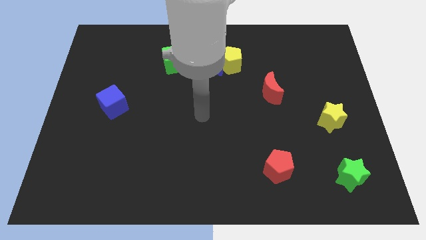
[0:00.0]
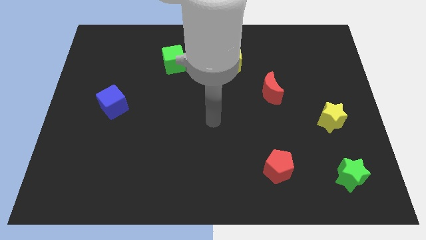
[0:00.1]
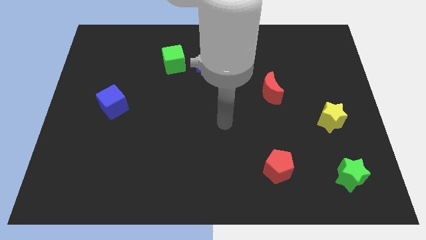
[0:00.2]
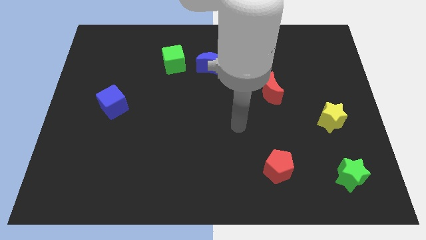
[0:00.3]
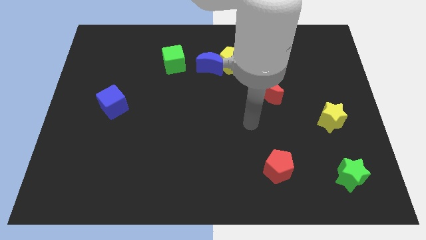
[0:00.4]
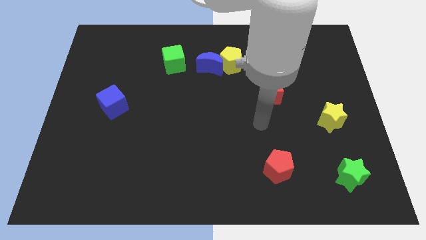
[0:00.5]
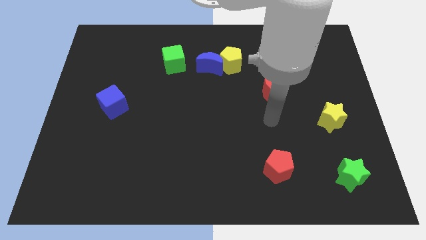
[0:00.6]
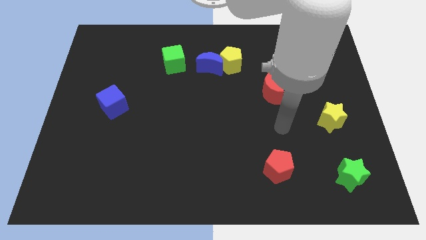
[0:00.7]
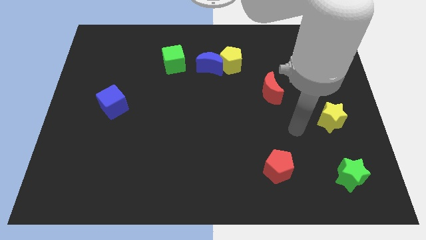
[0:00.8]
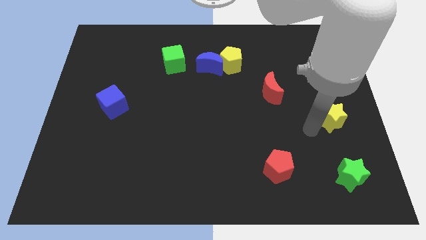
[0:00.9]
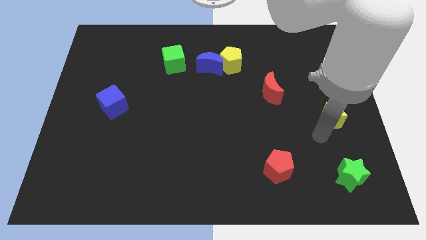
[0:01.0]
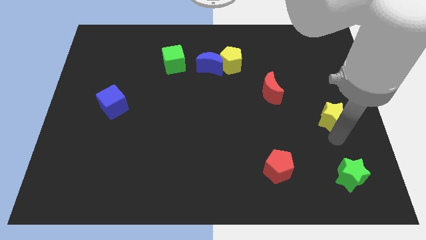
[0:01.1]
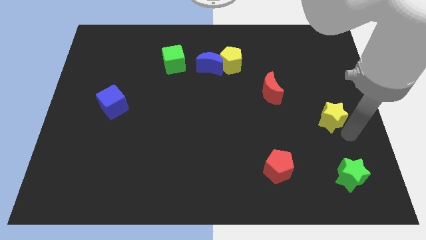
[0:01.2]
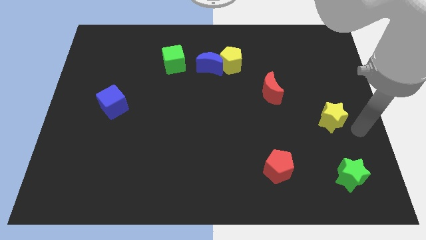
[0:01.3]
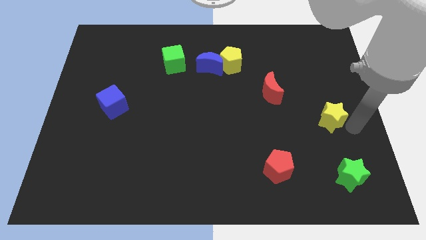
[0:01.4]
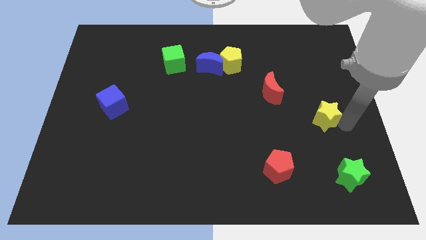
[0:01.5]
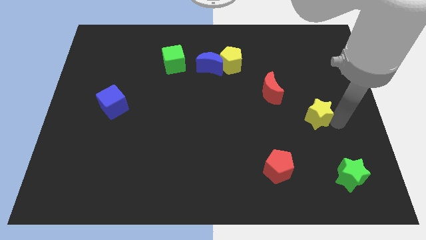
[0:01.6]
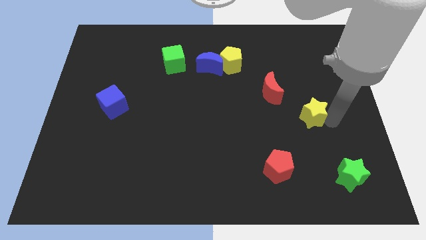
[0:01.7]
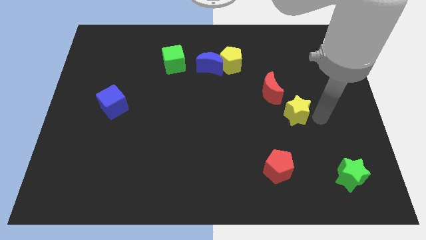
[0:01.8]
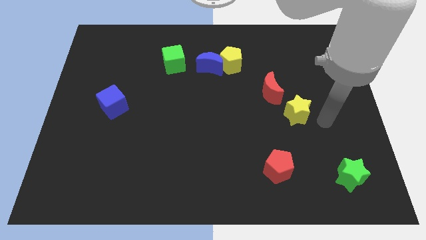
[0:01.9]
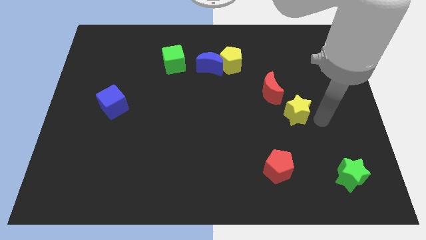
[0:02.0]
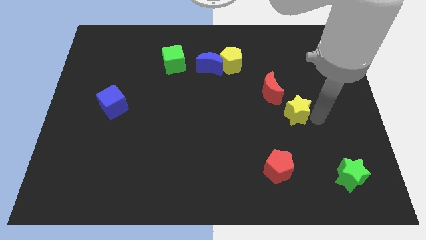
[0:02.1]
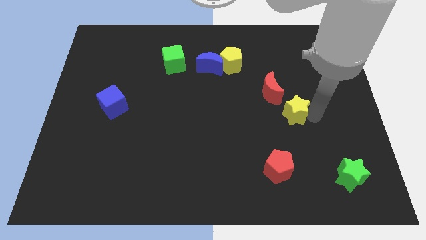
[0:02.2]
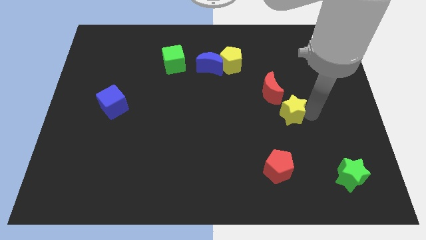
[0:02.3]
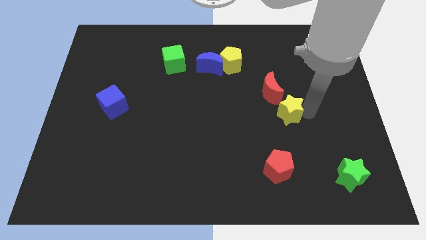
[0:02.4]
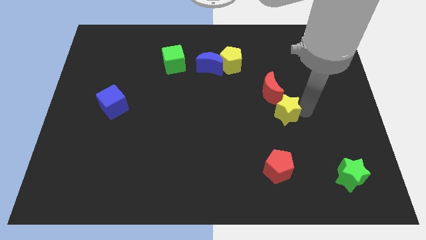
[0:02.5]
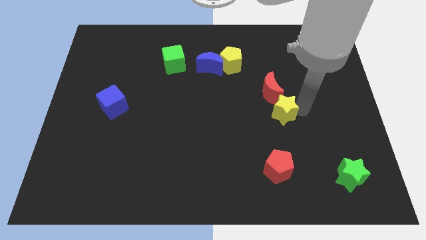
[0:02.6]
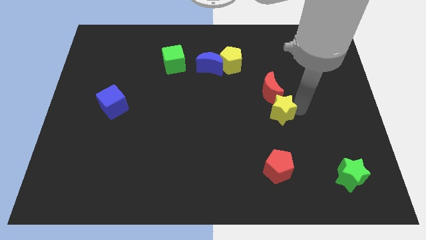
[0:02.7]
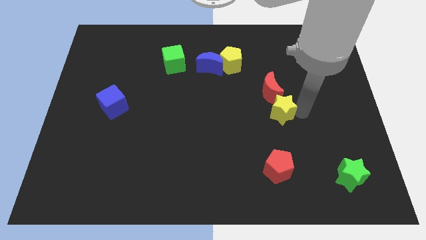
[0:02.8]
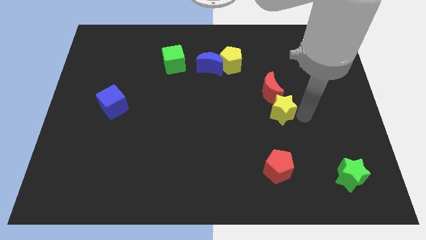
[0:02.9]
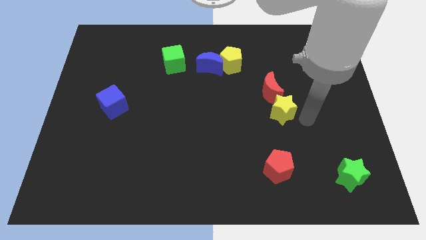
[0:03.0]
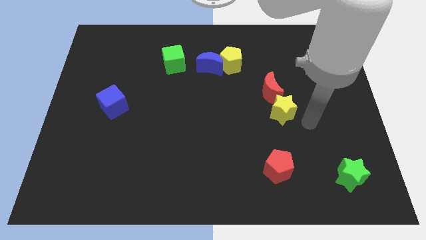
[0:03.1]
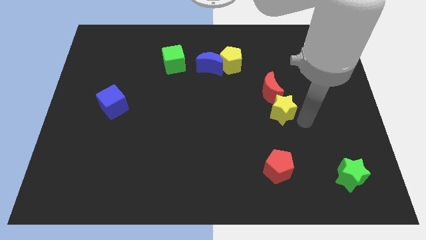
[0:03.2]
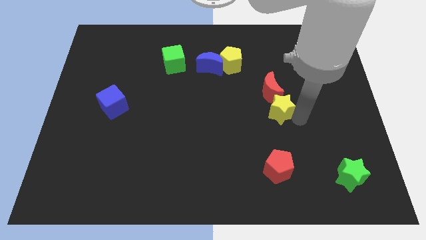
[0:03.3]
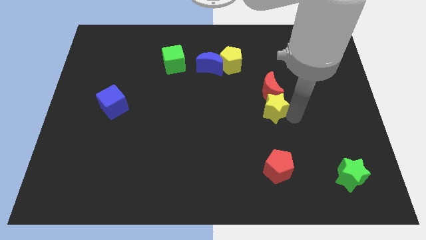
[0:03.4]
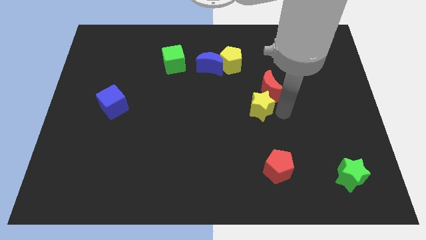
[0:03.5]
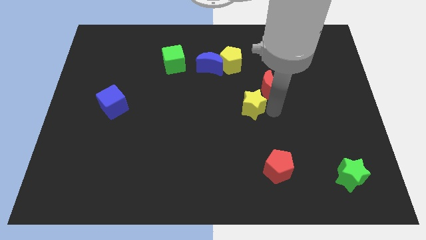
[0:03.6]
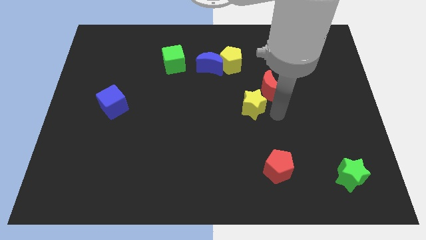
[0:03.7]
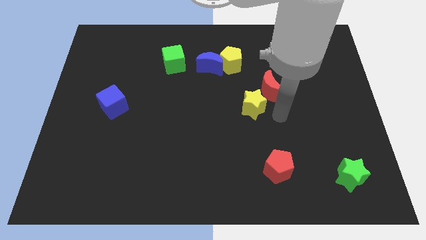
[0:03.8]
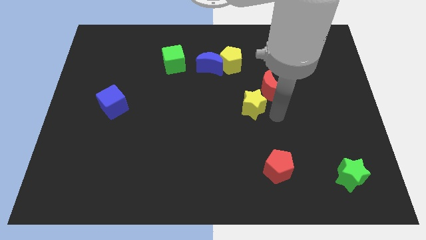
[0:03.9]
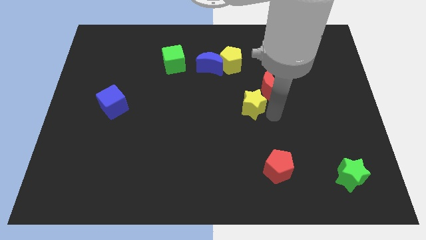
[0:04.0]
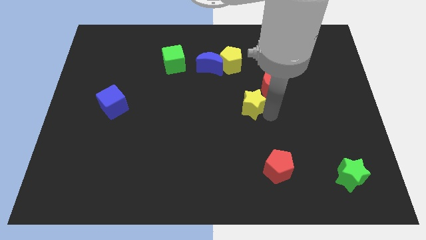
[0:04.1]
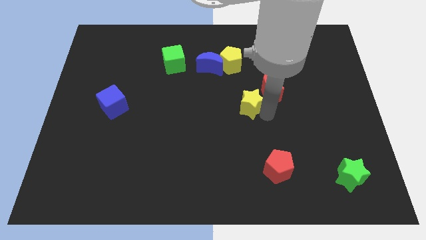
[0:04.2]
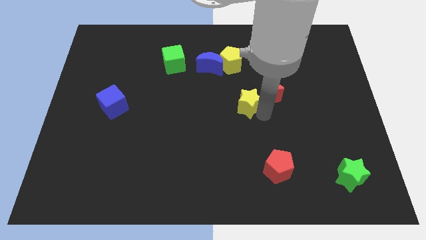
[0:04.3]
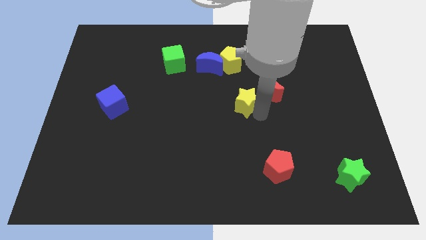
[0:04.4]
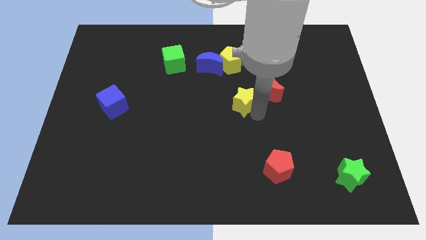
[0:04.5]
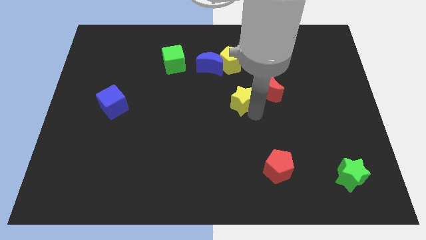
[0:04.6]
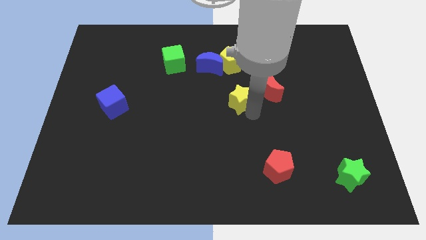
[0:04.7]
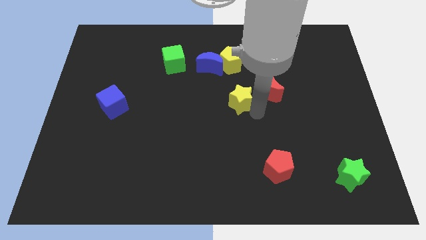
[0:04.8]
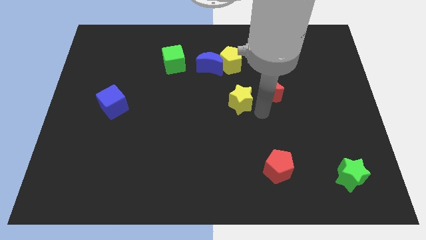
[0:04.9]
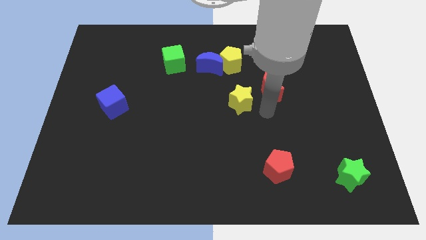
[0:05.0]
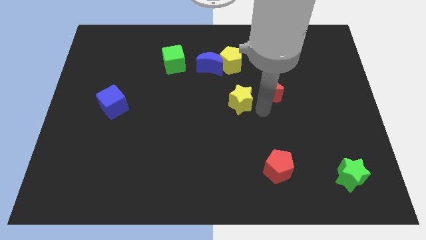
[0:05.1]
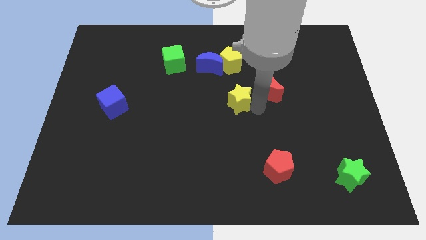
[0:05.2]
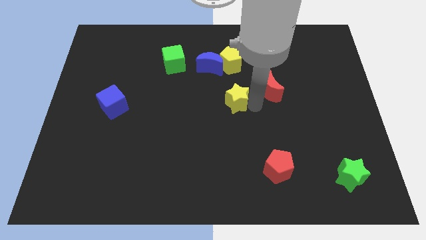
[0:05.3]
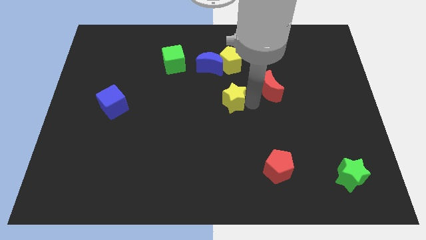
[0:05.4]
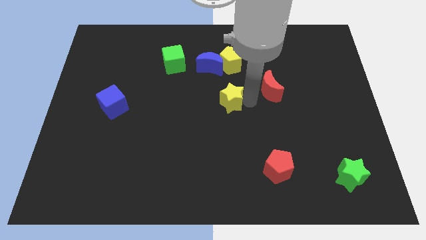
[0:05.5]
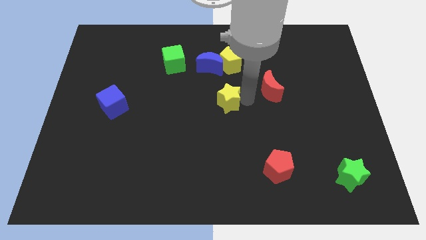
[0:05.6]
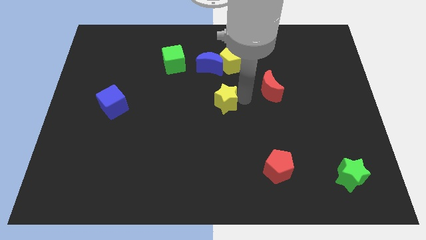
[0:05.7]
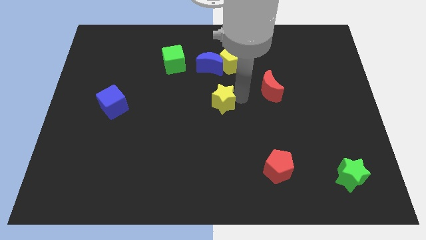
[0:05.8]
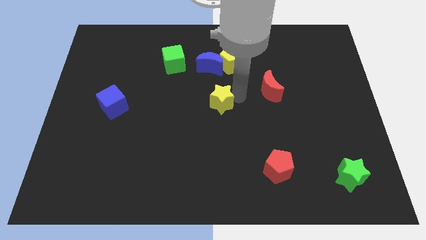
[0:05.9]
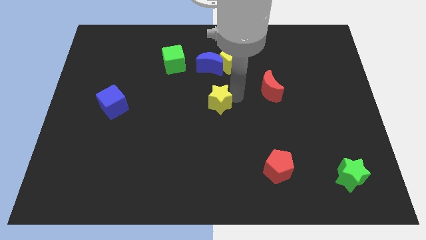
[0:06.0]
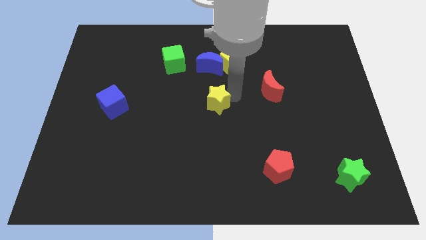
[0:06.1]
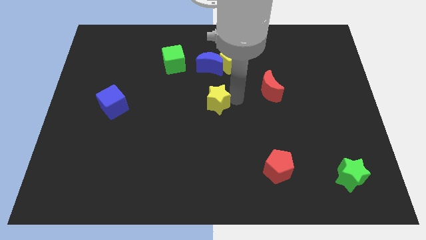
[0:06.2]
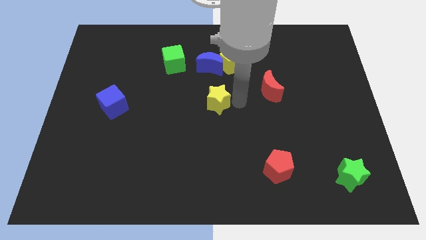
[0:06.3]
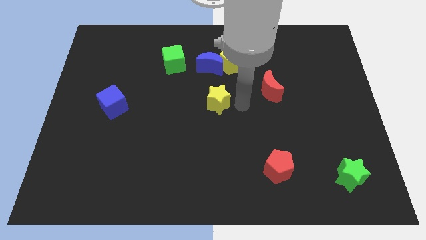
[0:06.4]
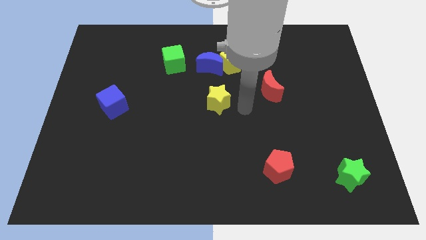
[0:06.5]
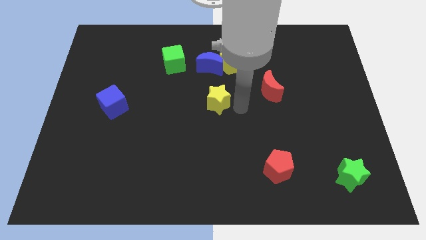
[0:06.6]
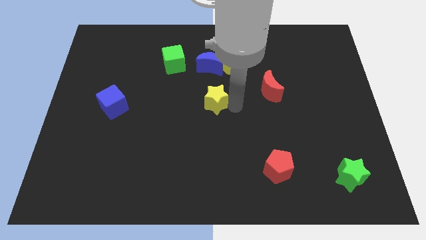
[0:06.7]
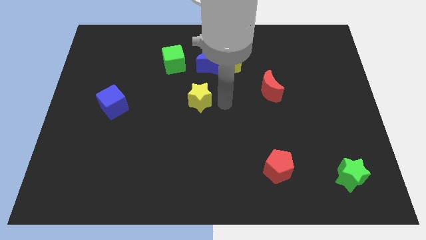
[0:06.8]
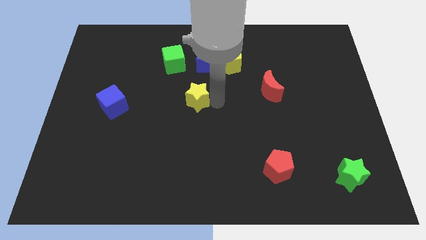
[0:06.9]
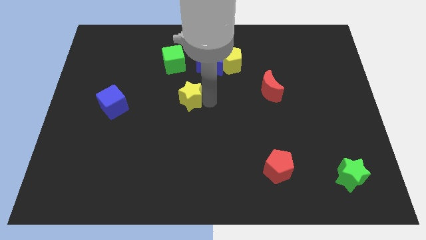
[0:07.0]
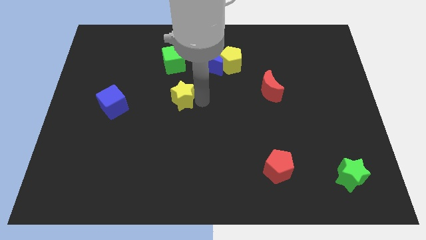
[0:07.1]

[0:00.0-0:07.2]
move the yellow star below the green cube
